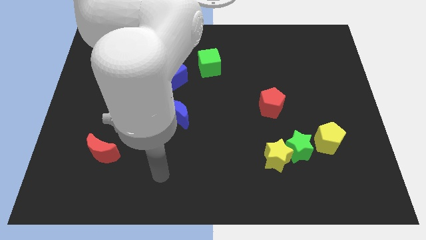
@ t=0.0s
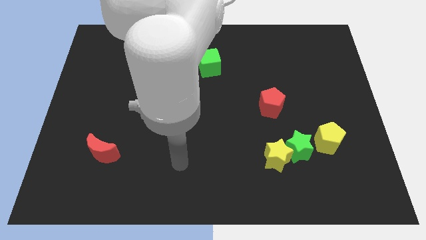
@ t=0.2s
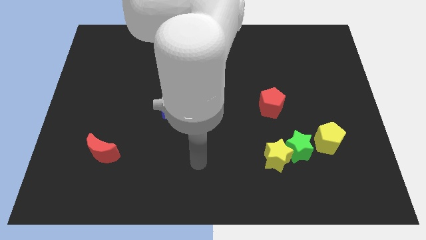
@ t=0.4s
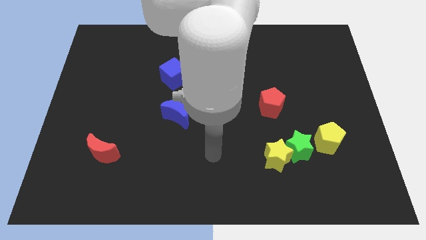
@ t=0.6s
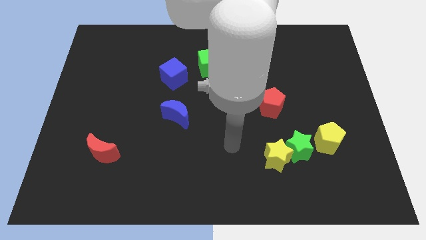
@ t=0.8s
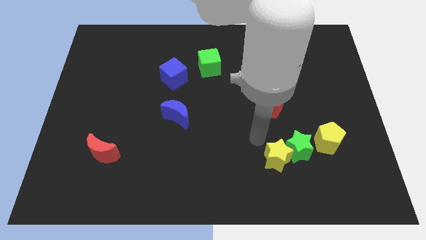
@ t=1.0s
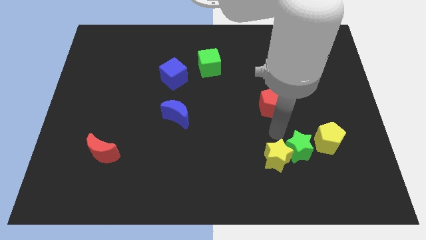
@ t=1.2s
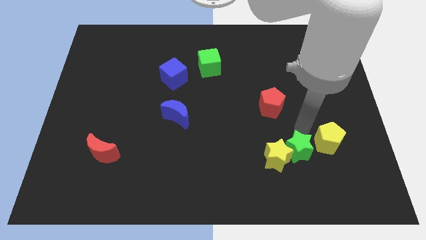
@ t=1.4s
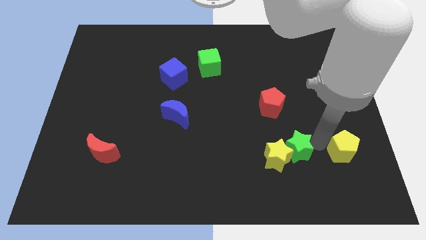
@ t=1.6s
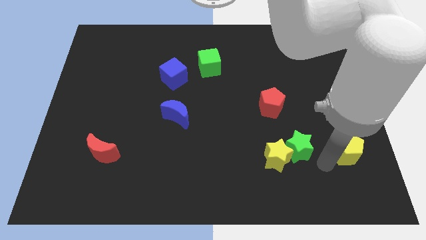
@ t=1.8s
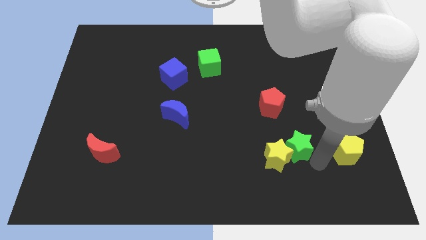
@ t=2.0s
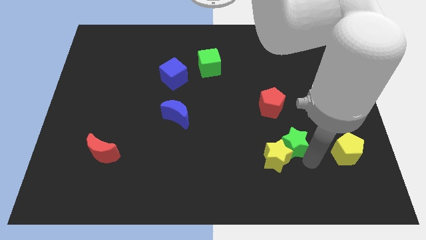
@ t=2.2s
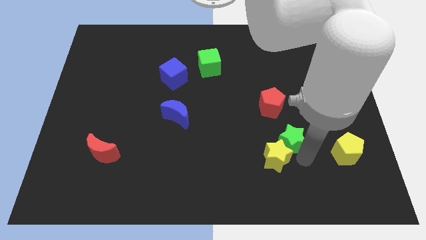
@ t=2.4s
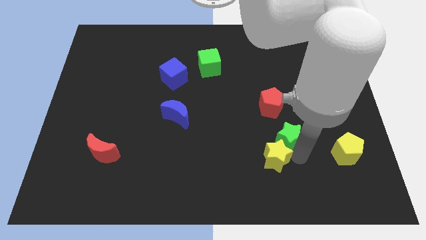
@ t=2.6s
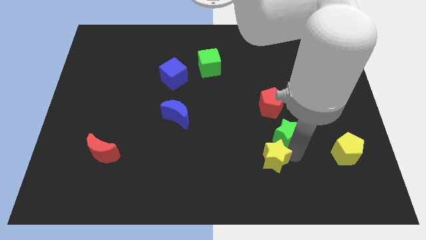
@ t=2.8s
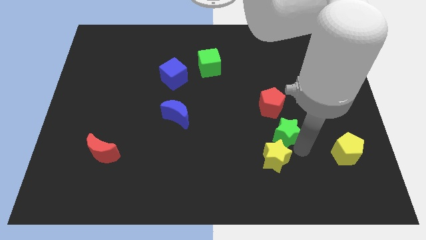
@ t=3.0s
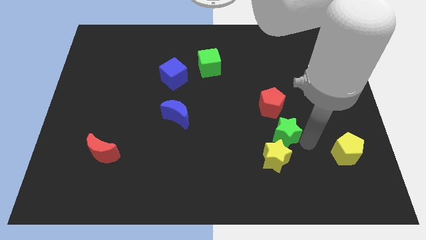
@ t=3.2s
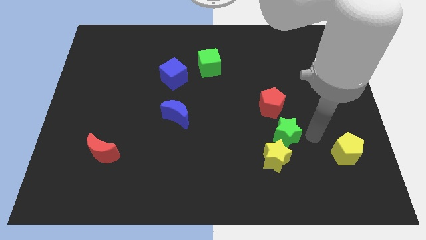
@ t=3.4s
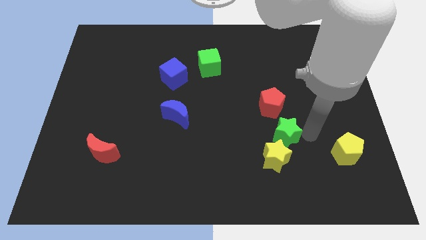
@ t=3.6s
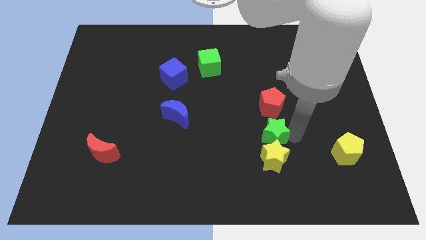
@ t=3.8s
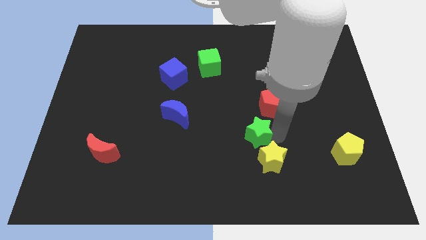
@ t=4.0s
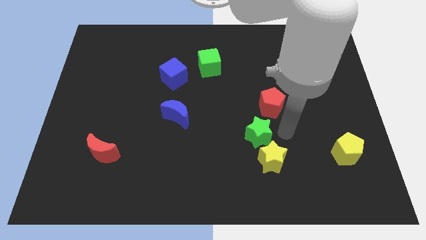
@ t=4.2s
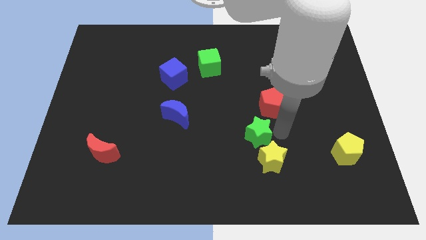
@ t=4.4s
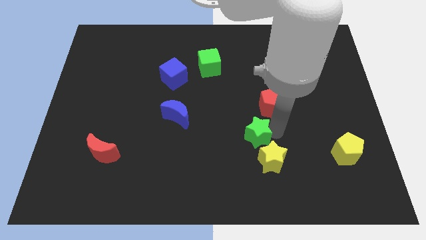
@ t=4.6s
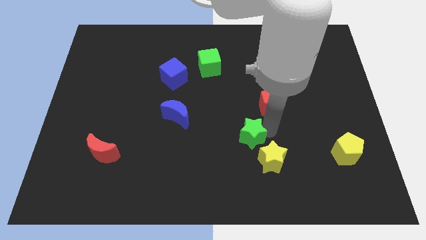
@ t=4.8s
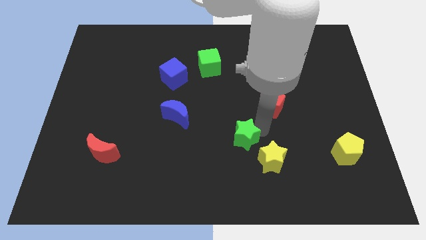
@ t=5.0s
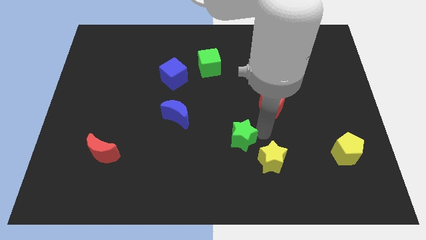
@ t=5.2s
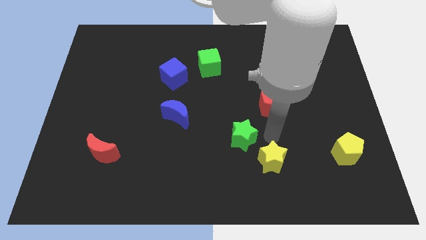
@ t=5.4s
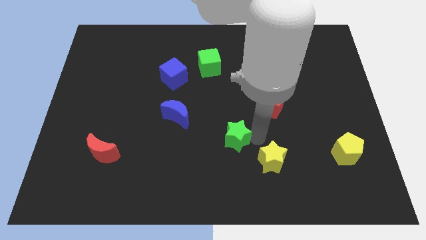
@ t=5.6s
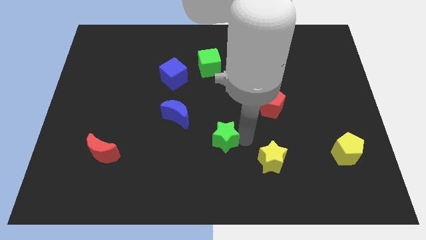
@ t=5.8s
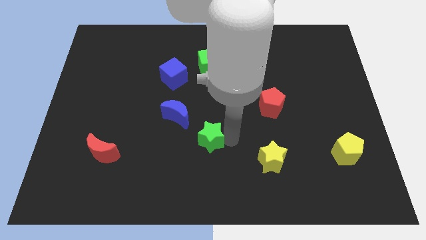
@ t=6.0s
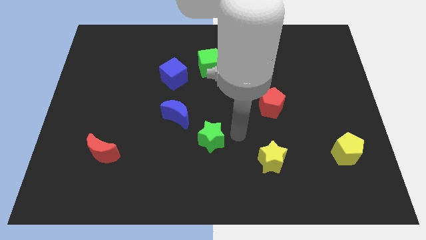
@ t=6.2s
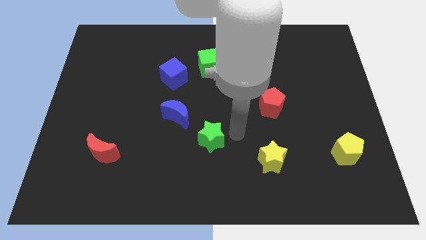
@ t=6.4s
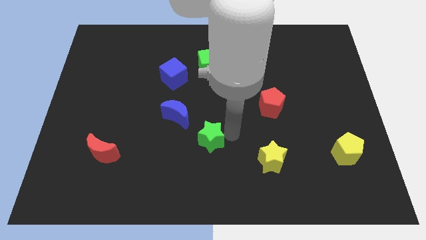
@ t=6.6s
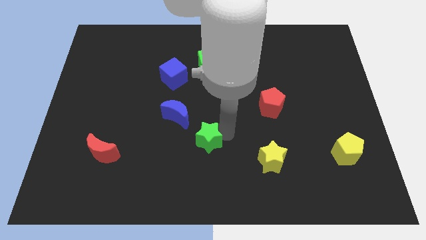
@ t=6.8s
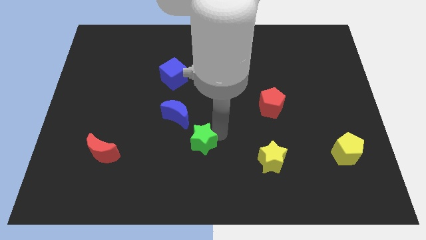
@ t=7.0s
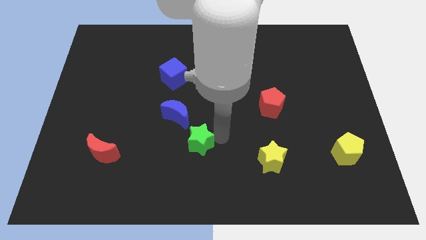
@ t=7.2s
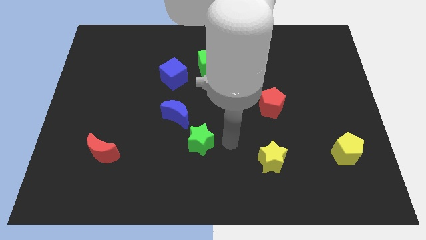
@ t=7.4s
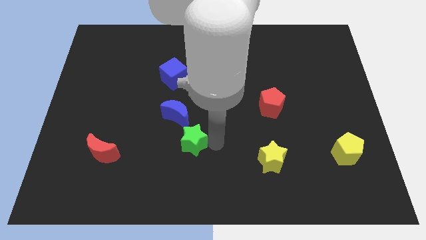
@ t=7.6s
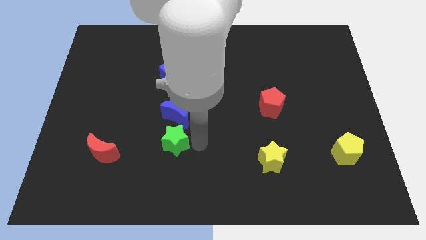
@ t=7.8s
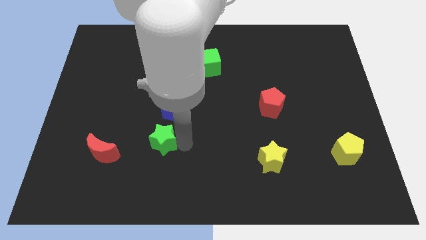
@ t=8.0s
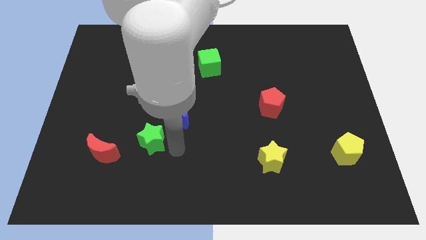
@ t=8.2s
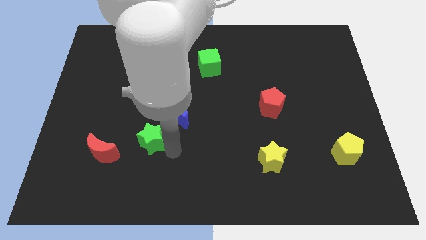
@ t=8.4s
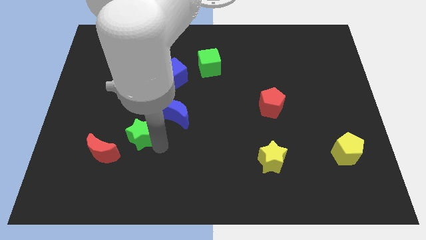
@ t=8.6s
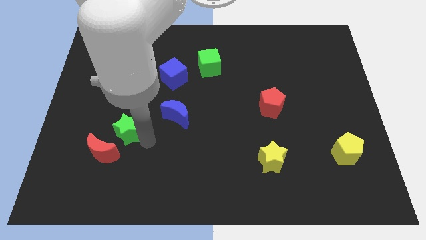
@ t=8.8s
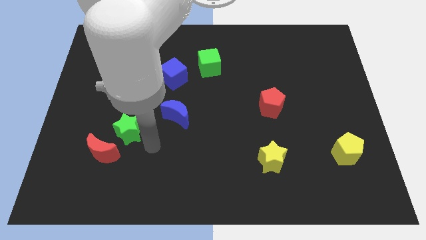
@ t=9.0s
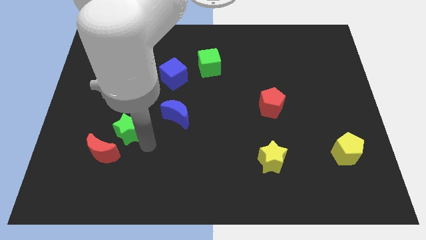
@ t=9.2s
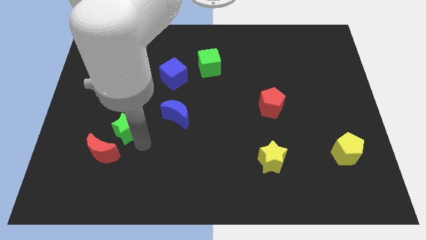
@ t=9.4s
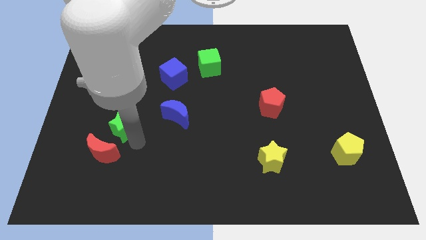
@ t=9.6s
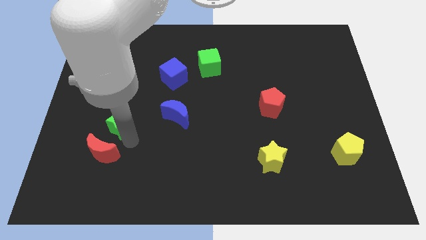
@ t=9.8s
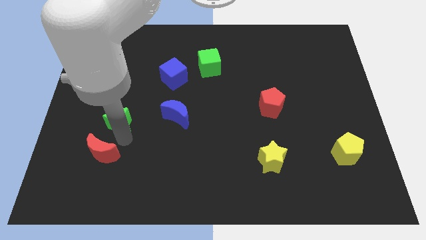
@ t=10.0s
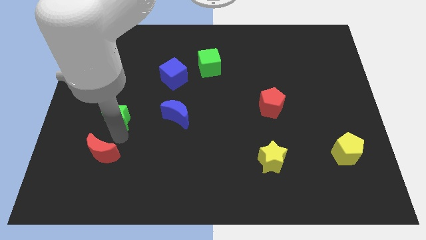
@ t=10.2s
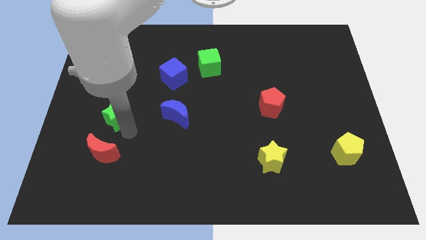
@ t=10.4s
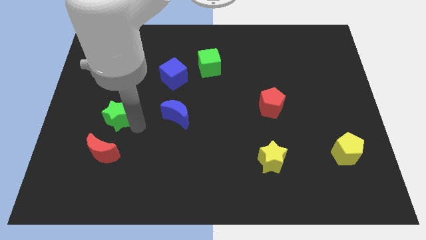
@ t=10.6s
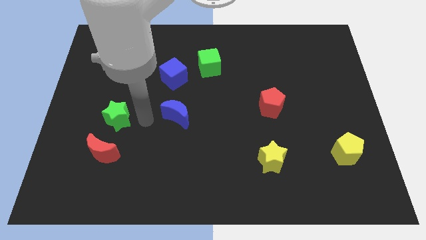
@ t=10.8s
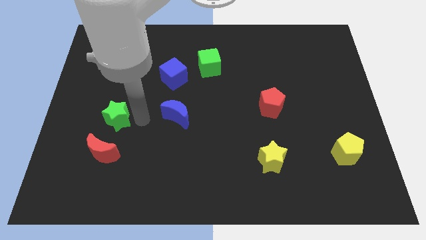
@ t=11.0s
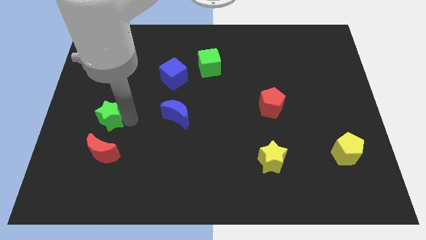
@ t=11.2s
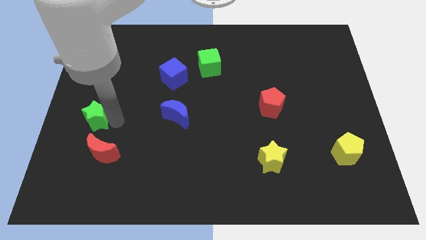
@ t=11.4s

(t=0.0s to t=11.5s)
slide the green star to the left side

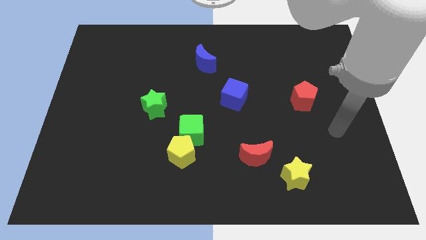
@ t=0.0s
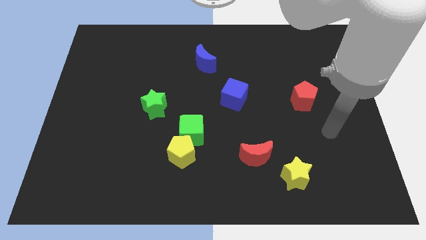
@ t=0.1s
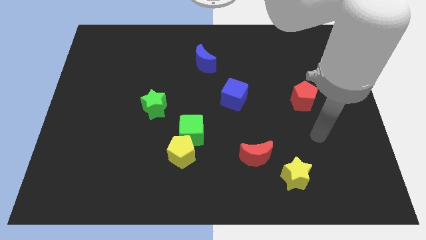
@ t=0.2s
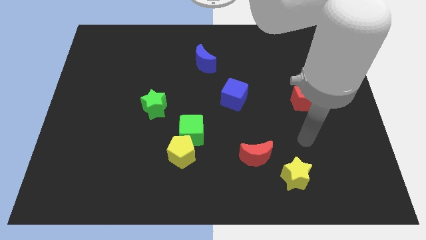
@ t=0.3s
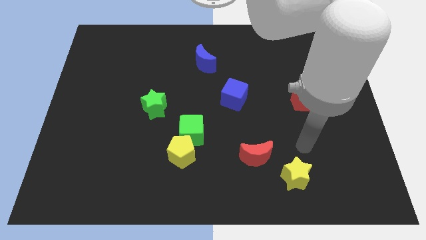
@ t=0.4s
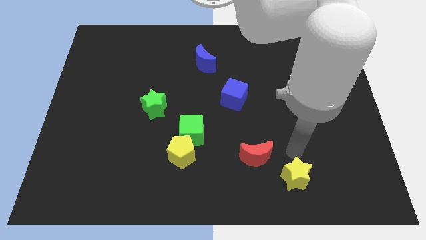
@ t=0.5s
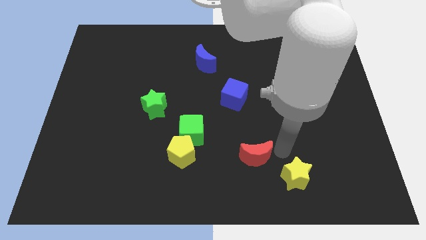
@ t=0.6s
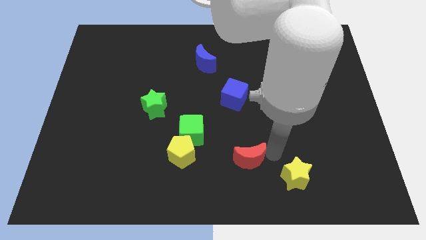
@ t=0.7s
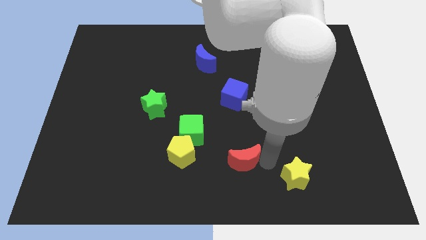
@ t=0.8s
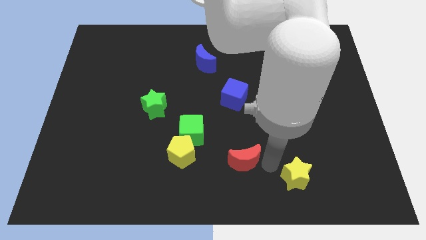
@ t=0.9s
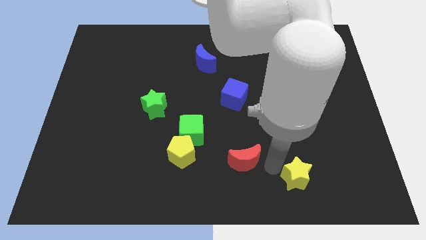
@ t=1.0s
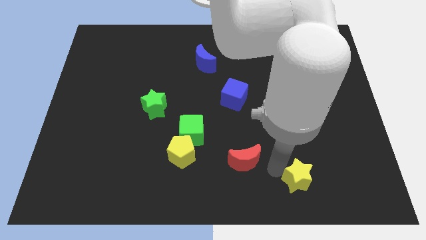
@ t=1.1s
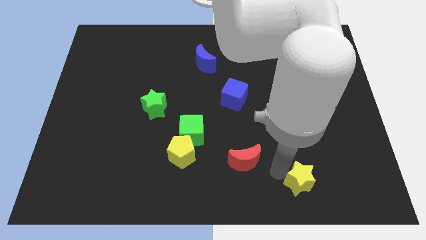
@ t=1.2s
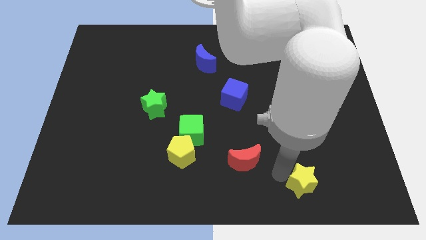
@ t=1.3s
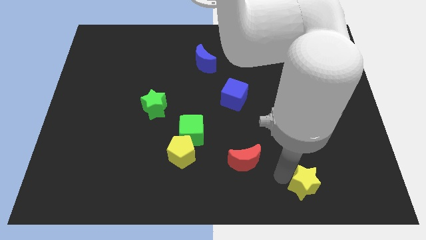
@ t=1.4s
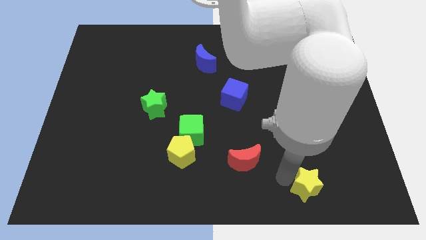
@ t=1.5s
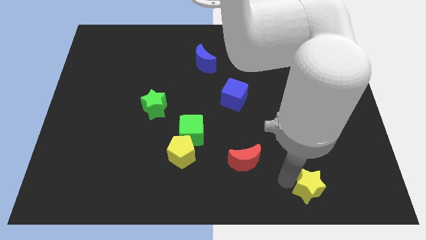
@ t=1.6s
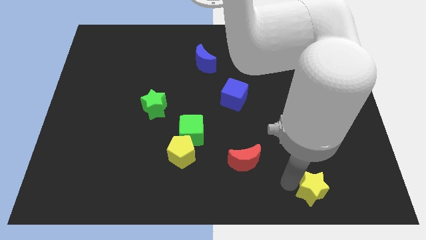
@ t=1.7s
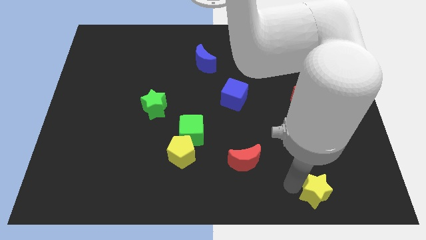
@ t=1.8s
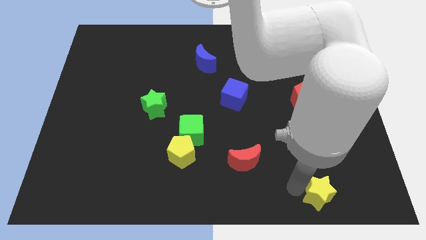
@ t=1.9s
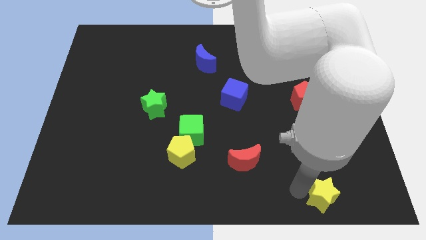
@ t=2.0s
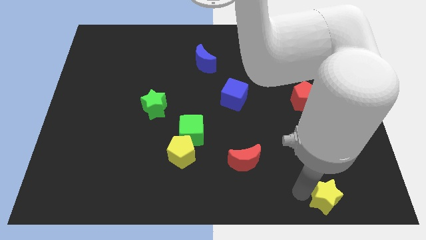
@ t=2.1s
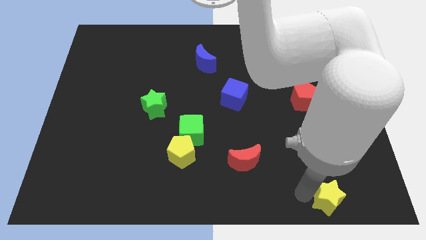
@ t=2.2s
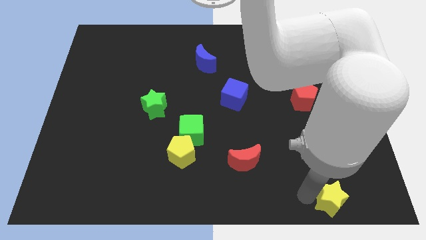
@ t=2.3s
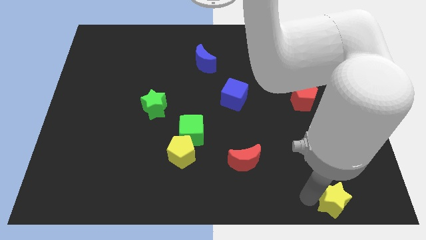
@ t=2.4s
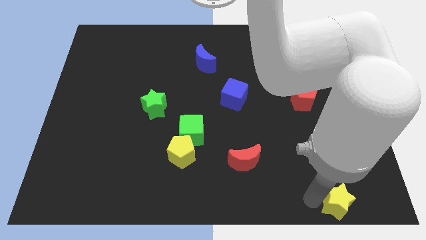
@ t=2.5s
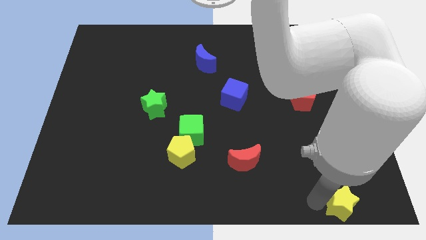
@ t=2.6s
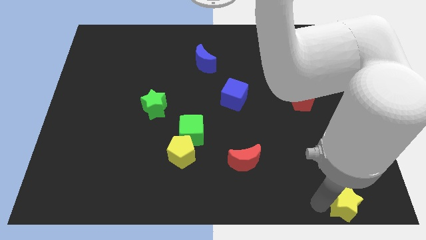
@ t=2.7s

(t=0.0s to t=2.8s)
push the yellow star to the lower right corner
